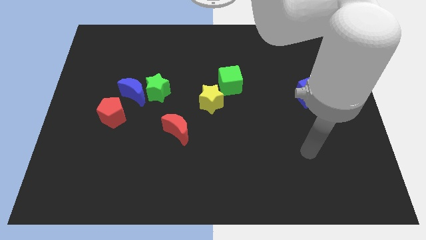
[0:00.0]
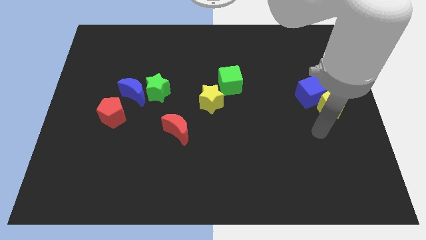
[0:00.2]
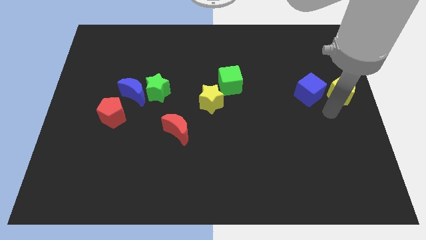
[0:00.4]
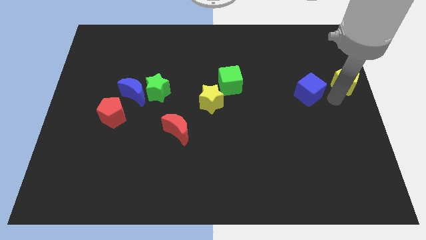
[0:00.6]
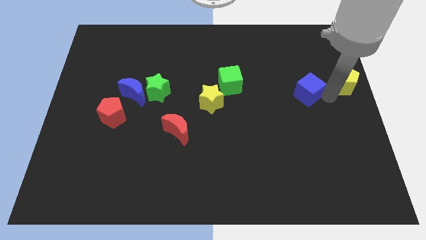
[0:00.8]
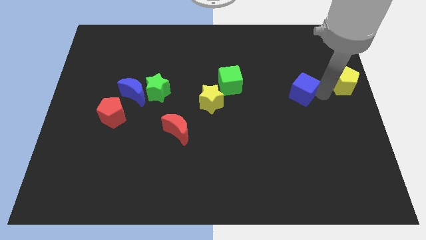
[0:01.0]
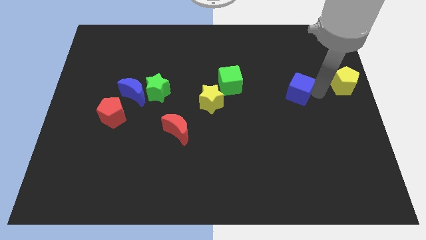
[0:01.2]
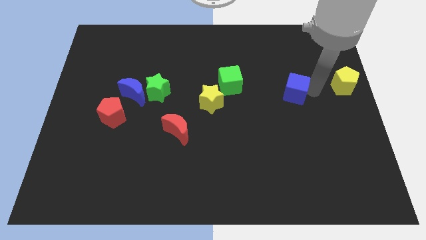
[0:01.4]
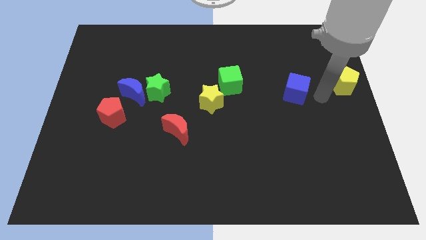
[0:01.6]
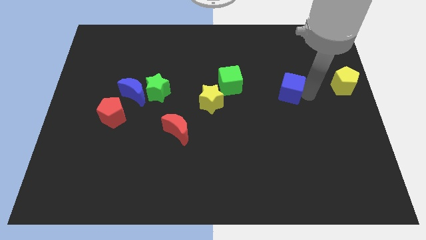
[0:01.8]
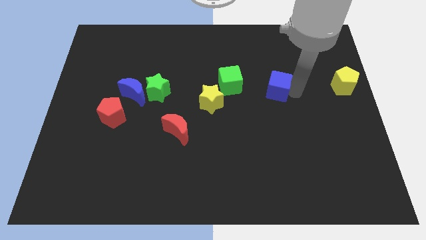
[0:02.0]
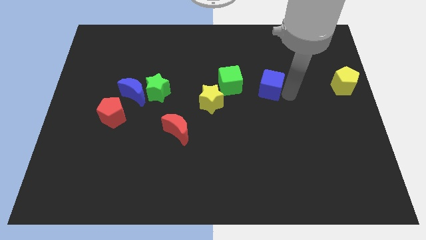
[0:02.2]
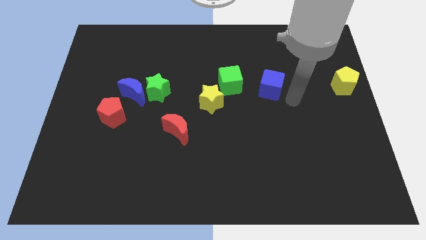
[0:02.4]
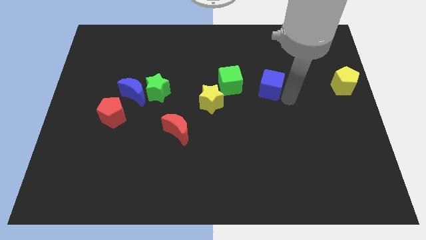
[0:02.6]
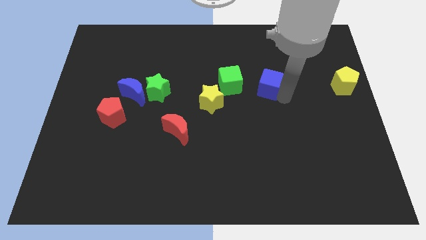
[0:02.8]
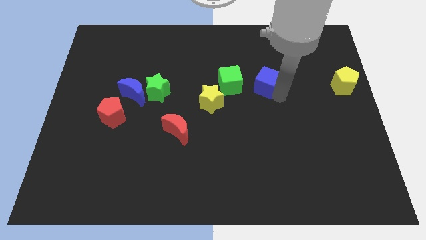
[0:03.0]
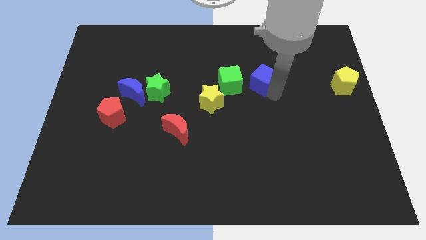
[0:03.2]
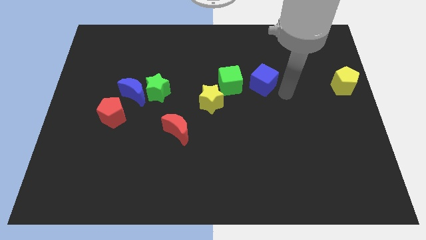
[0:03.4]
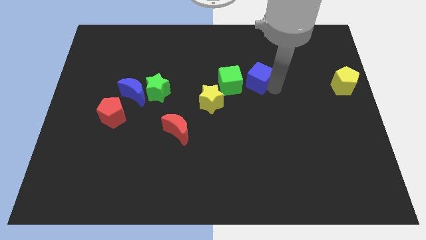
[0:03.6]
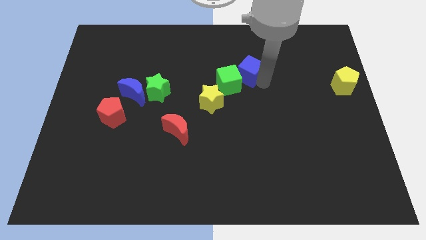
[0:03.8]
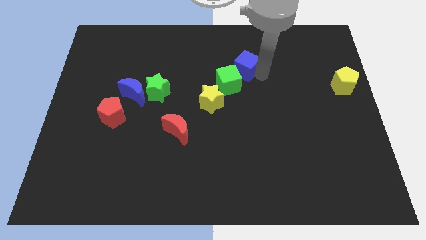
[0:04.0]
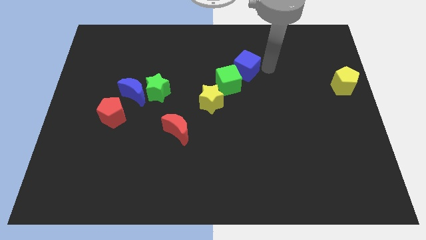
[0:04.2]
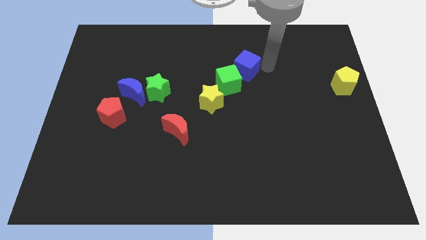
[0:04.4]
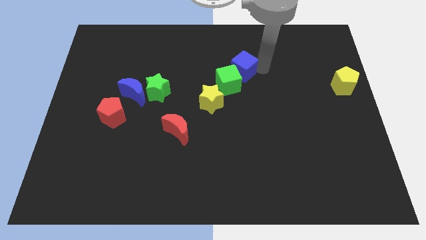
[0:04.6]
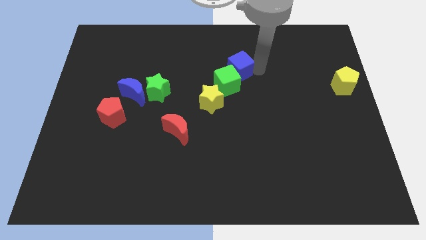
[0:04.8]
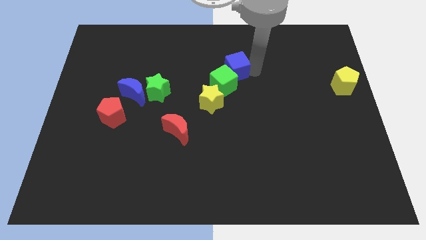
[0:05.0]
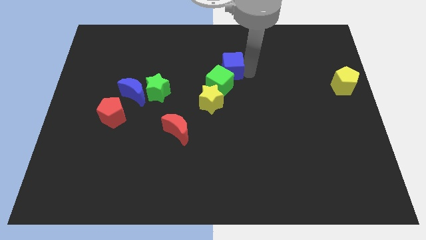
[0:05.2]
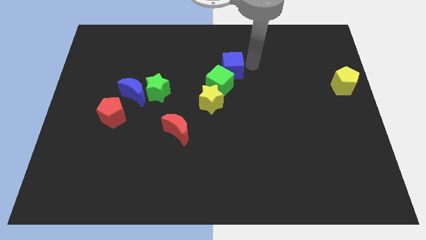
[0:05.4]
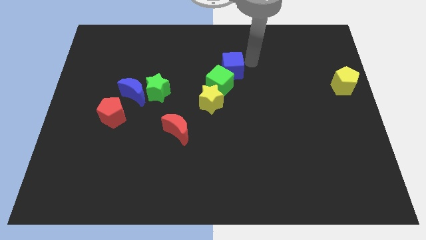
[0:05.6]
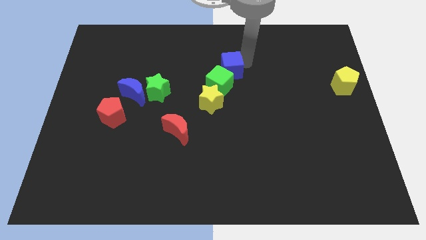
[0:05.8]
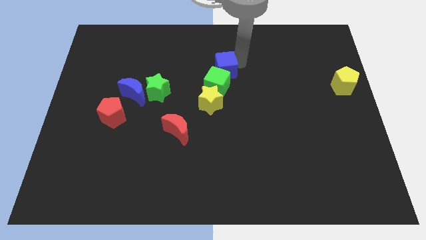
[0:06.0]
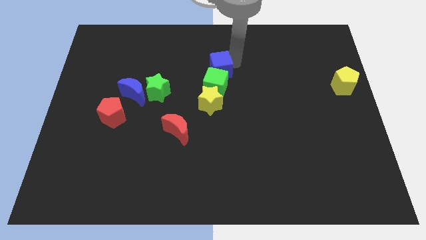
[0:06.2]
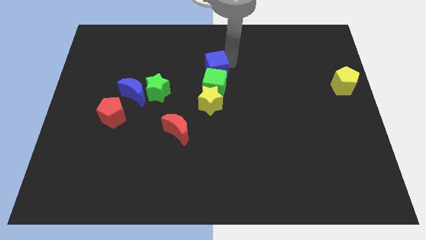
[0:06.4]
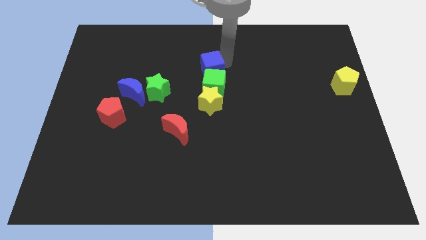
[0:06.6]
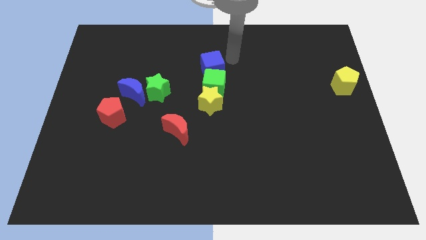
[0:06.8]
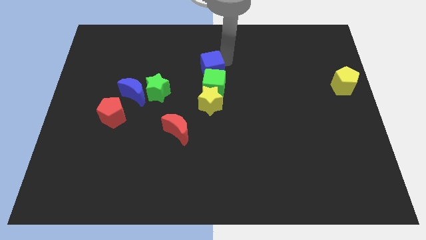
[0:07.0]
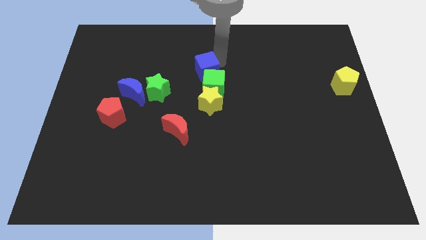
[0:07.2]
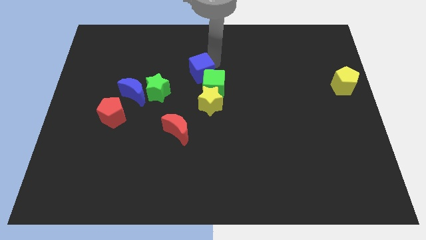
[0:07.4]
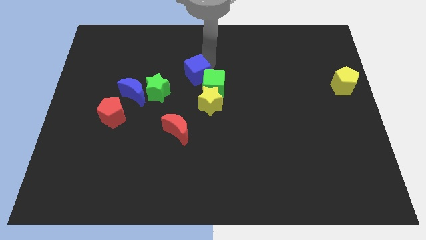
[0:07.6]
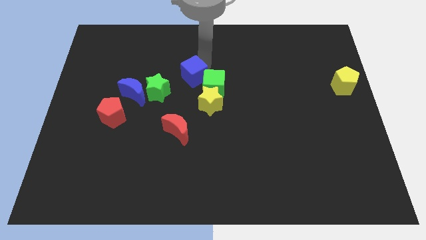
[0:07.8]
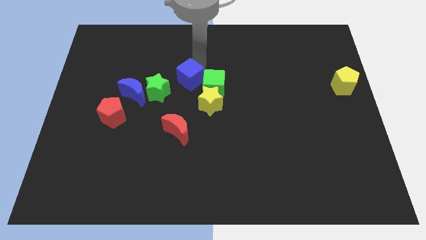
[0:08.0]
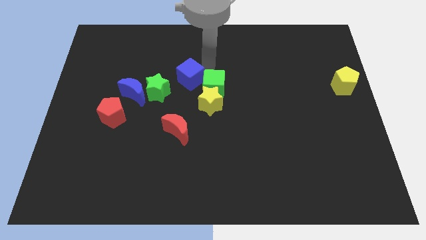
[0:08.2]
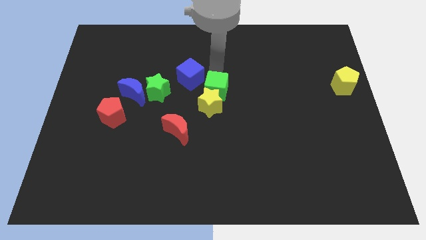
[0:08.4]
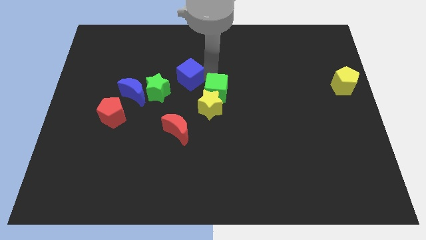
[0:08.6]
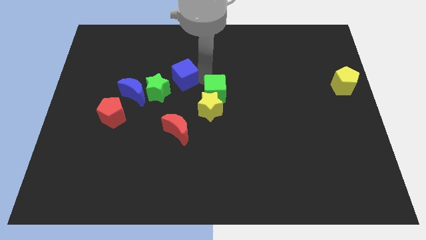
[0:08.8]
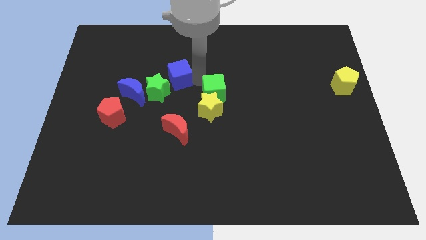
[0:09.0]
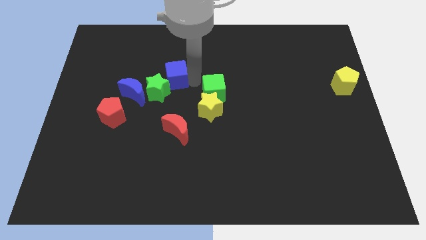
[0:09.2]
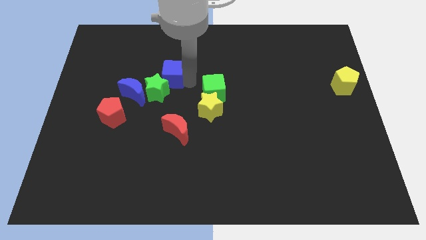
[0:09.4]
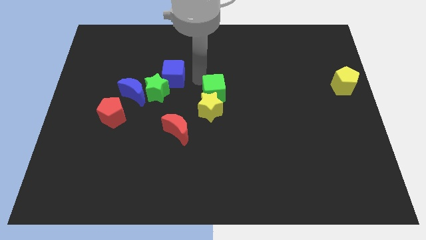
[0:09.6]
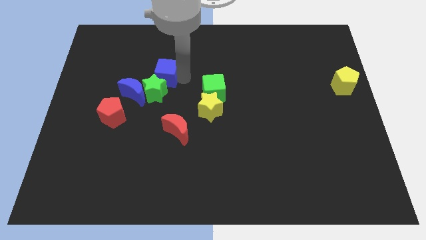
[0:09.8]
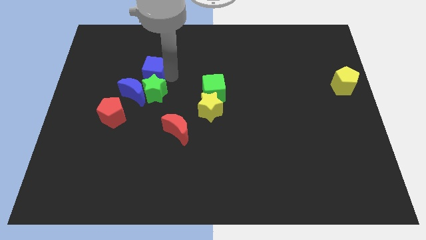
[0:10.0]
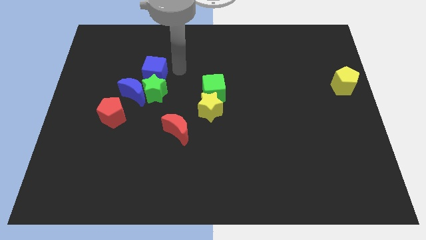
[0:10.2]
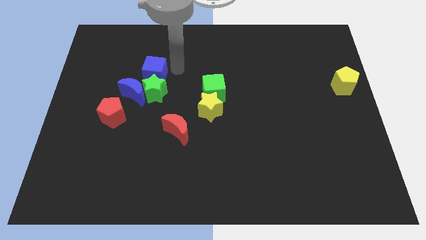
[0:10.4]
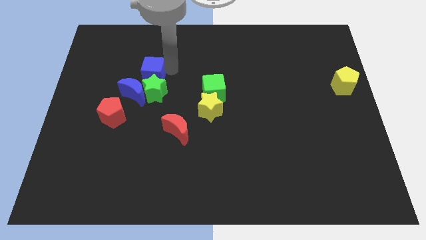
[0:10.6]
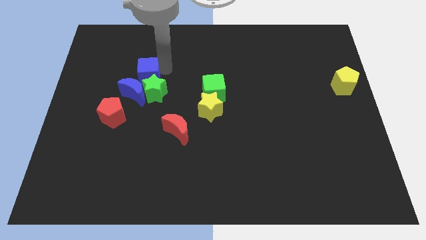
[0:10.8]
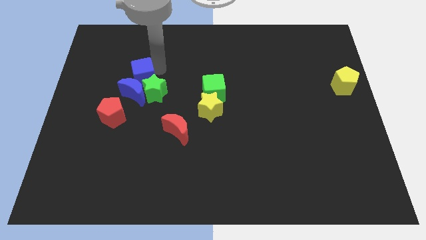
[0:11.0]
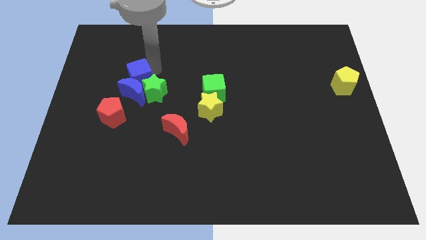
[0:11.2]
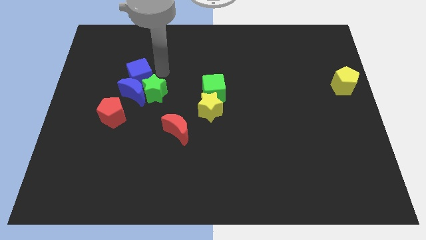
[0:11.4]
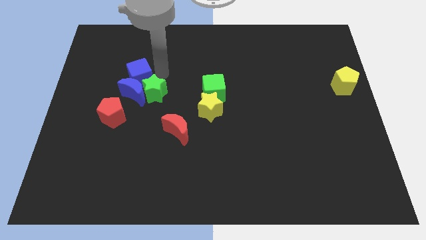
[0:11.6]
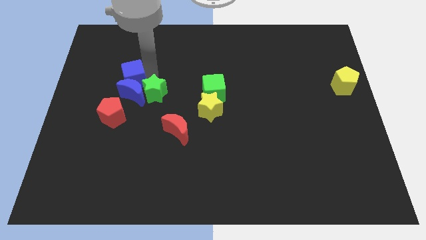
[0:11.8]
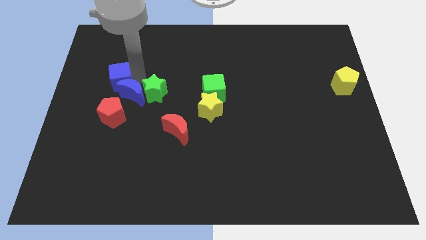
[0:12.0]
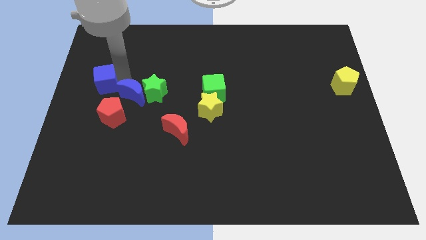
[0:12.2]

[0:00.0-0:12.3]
put the blue cube to the left side of the board
